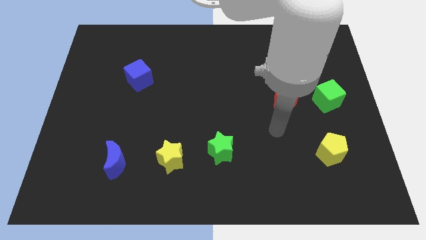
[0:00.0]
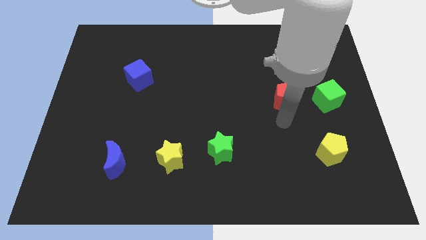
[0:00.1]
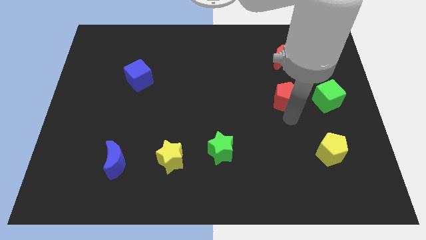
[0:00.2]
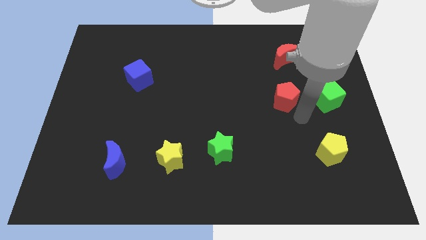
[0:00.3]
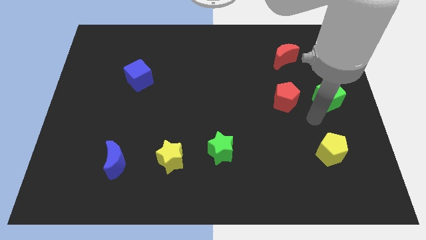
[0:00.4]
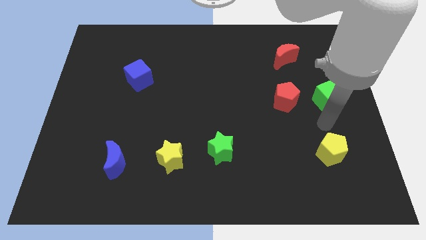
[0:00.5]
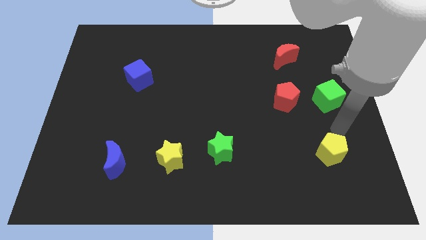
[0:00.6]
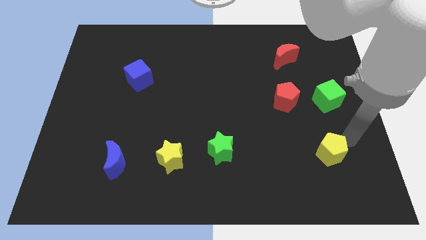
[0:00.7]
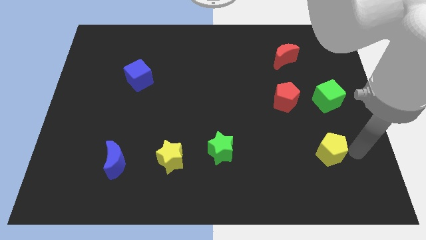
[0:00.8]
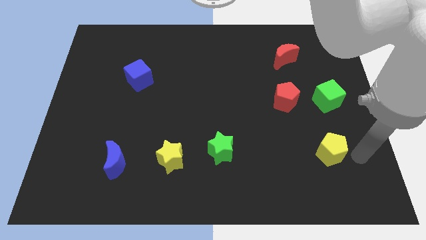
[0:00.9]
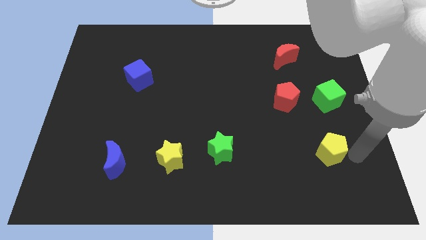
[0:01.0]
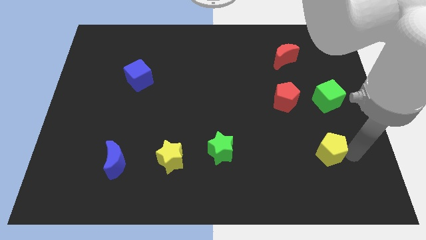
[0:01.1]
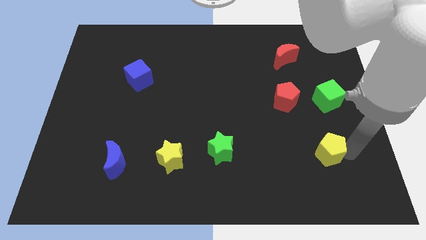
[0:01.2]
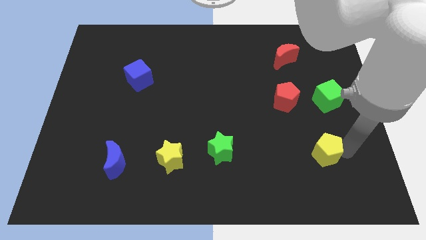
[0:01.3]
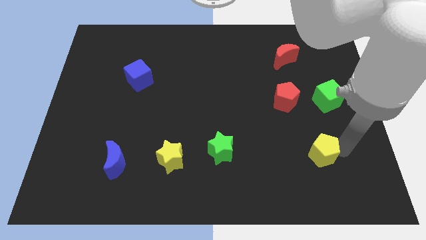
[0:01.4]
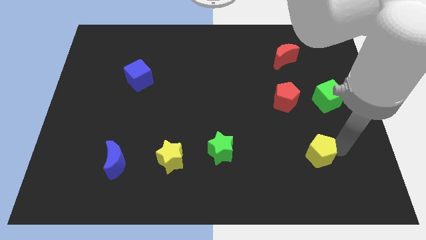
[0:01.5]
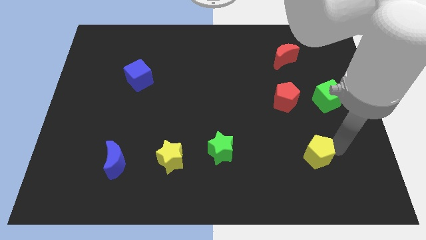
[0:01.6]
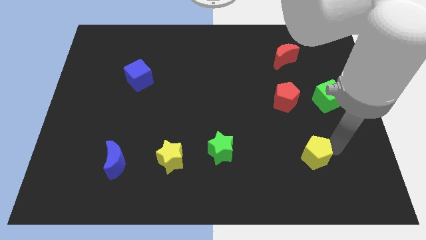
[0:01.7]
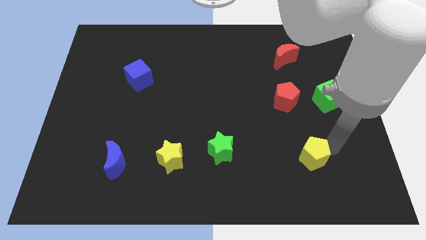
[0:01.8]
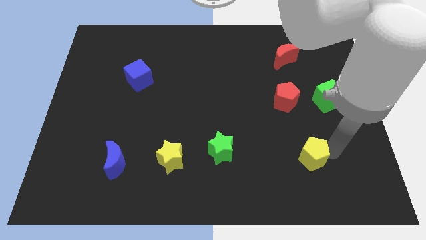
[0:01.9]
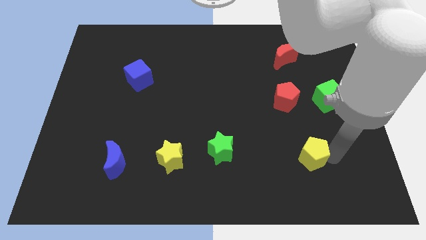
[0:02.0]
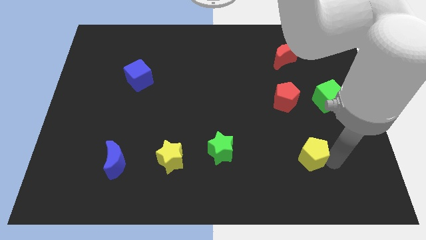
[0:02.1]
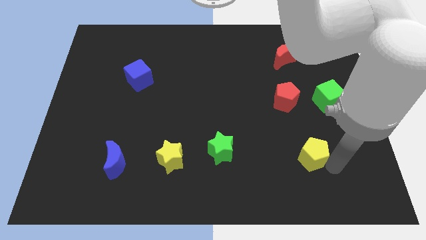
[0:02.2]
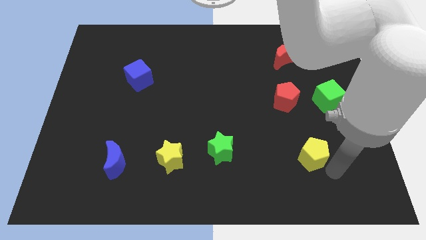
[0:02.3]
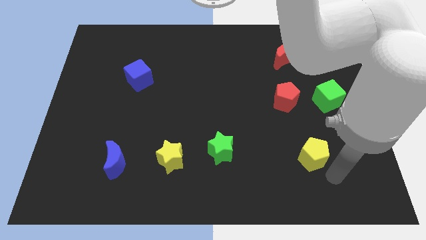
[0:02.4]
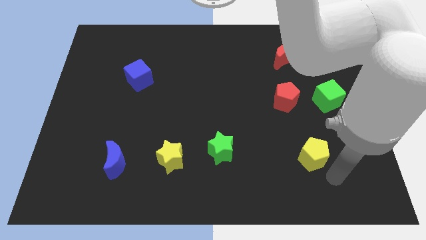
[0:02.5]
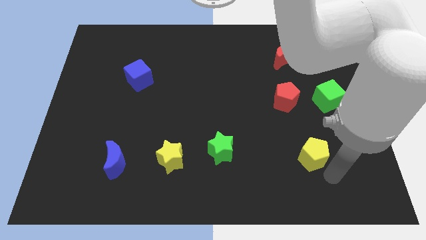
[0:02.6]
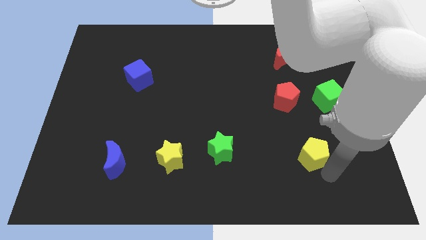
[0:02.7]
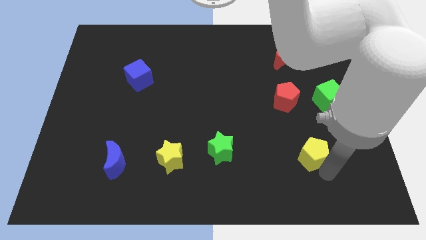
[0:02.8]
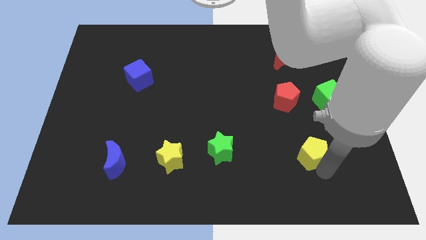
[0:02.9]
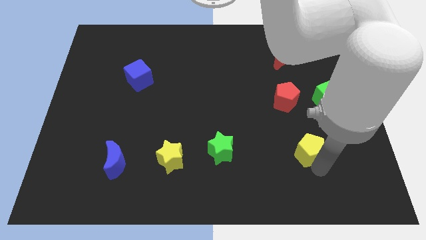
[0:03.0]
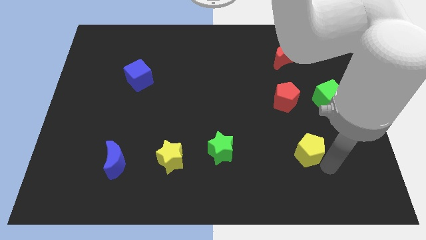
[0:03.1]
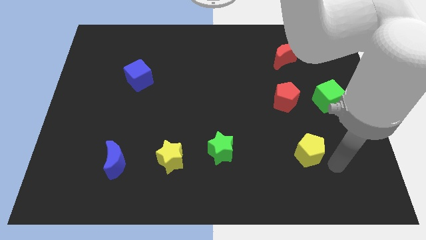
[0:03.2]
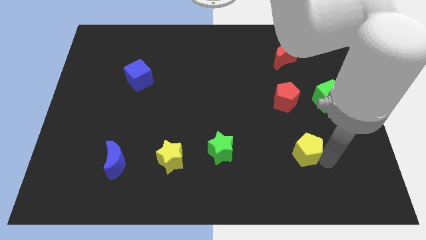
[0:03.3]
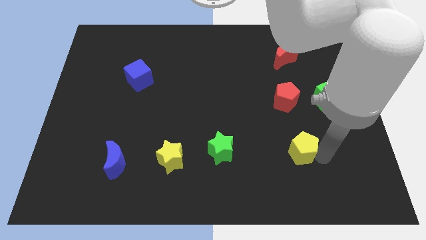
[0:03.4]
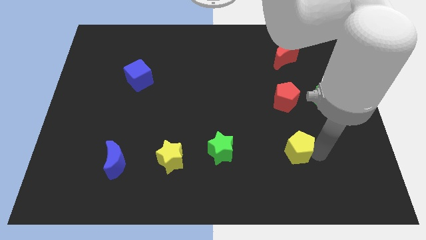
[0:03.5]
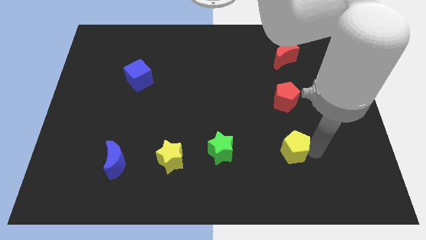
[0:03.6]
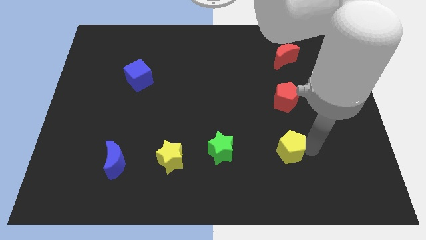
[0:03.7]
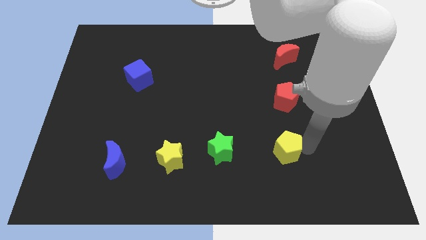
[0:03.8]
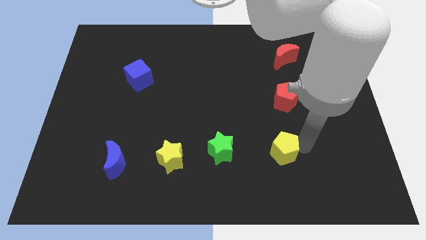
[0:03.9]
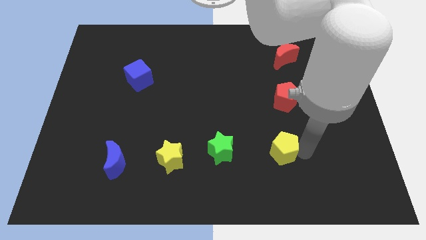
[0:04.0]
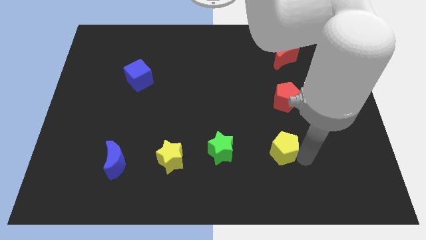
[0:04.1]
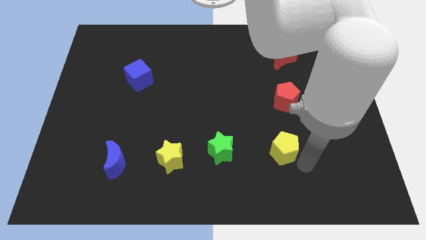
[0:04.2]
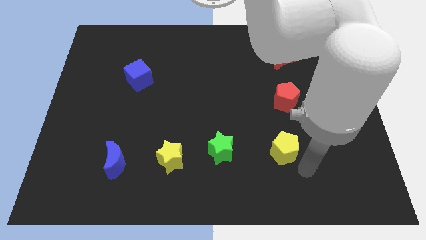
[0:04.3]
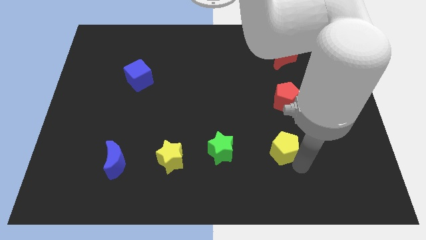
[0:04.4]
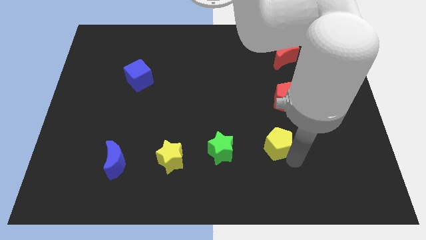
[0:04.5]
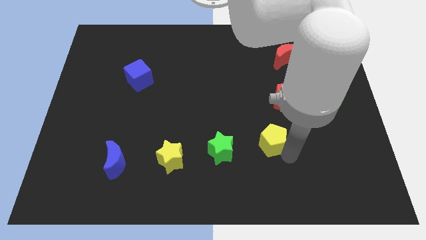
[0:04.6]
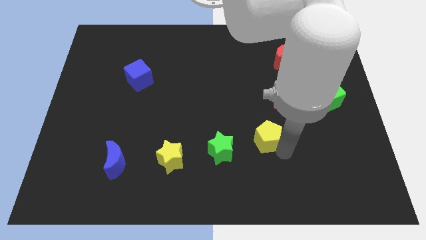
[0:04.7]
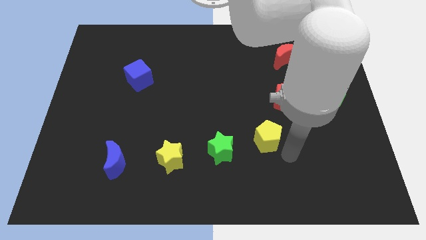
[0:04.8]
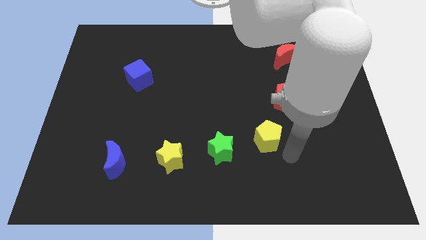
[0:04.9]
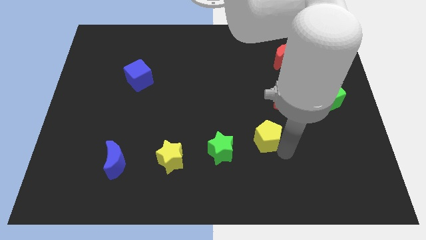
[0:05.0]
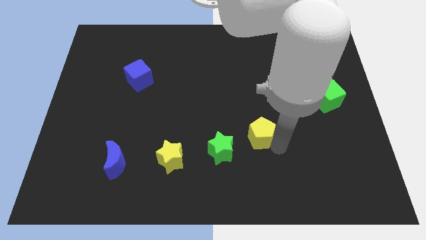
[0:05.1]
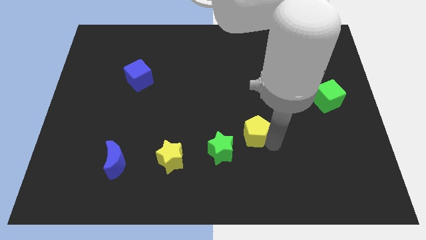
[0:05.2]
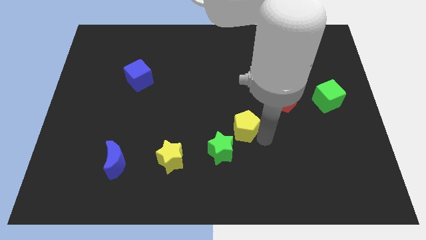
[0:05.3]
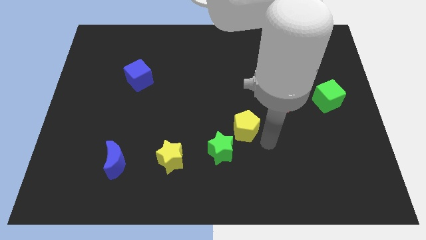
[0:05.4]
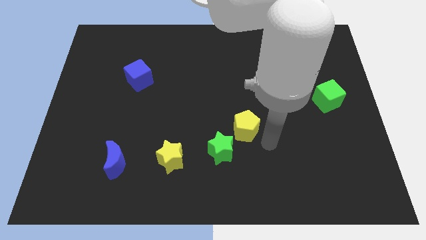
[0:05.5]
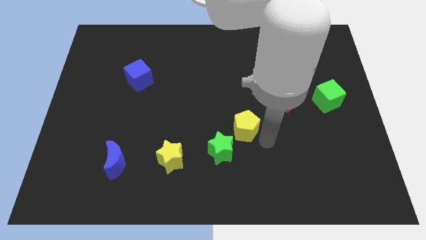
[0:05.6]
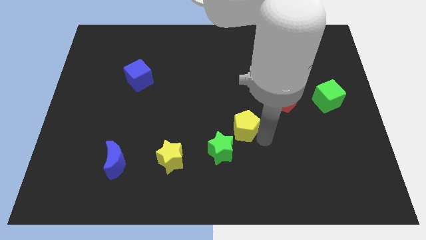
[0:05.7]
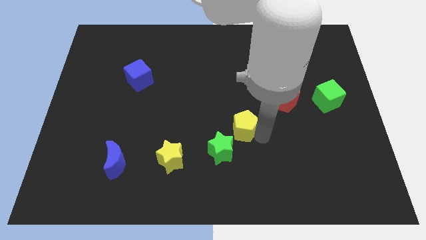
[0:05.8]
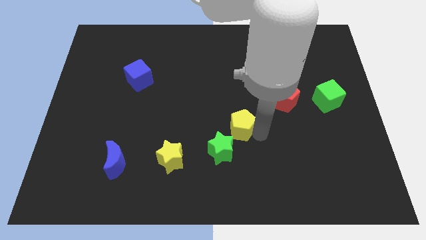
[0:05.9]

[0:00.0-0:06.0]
put the yellow pentagon above the green star
